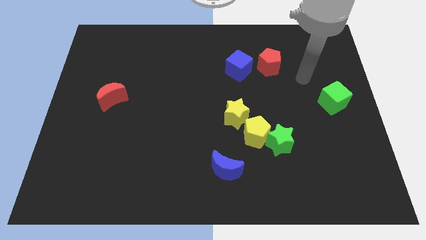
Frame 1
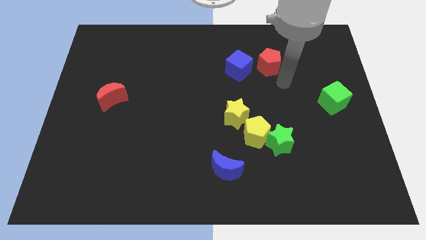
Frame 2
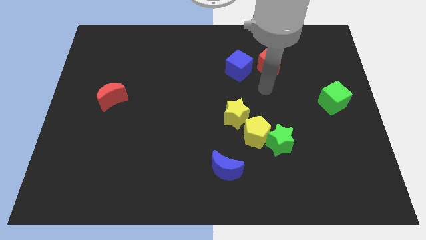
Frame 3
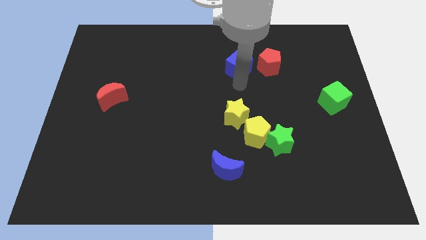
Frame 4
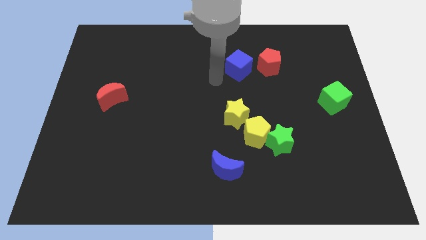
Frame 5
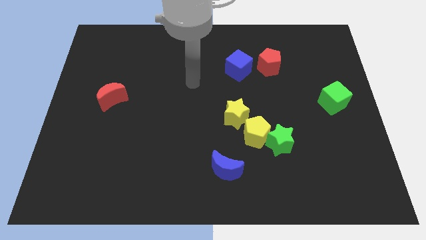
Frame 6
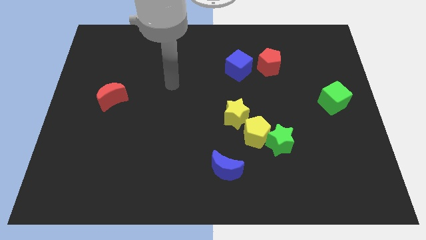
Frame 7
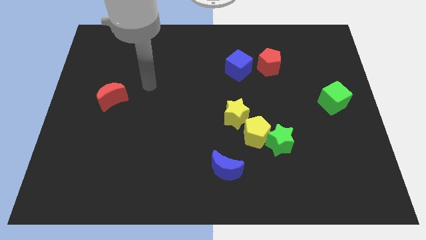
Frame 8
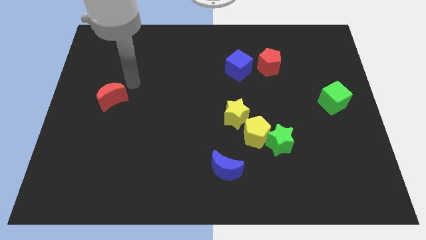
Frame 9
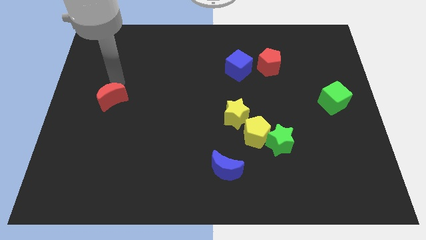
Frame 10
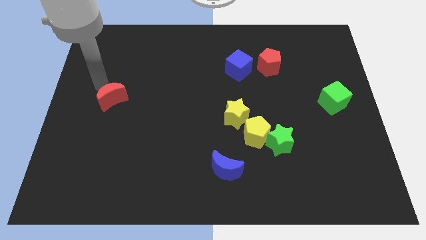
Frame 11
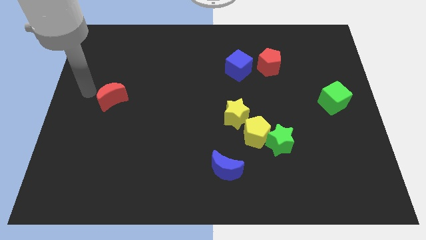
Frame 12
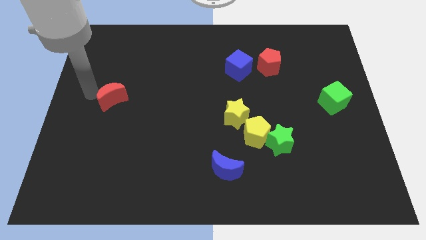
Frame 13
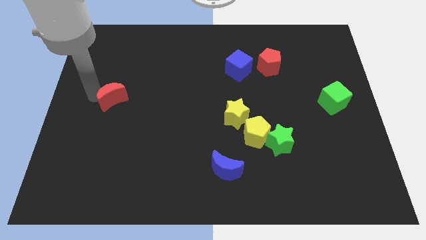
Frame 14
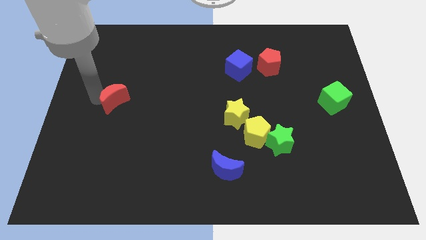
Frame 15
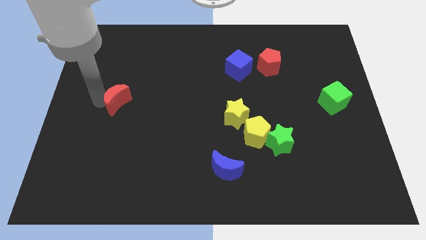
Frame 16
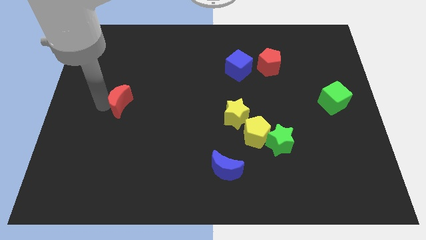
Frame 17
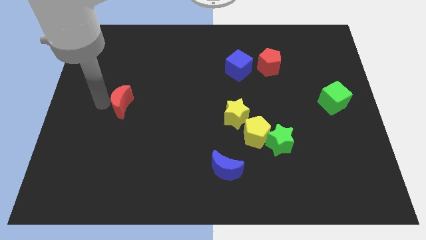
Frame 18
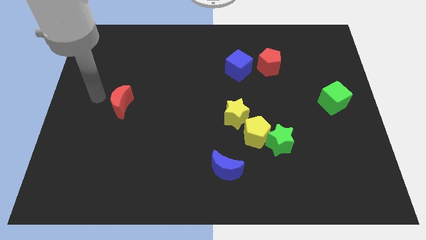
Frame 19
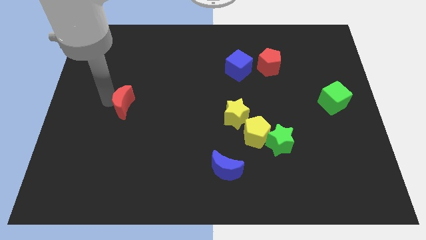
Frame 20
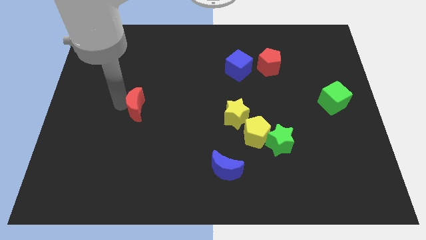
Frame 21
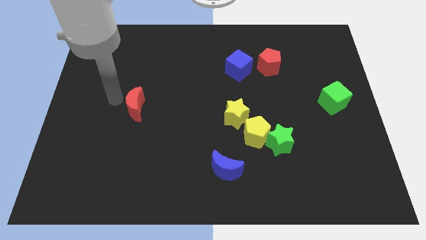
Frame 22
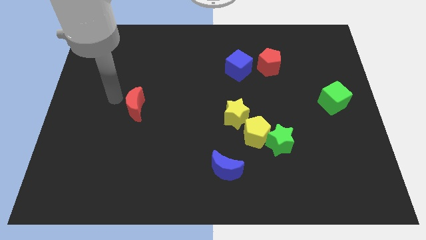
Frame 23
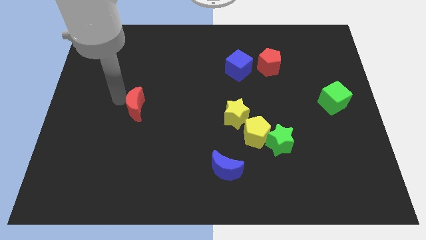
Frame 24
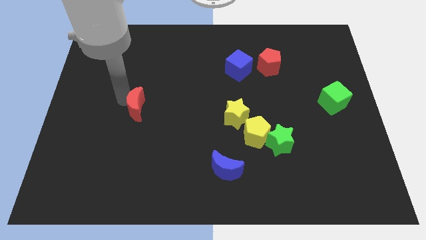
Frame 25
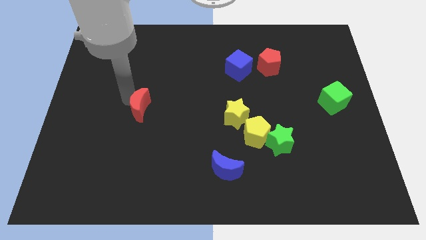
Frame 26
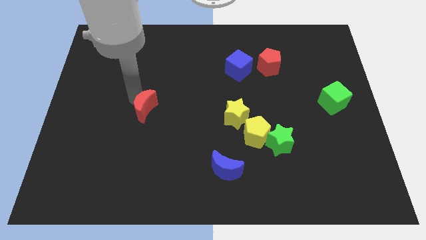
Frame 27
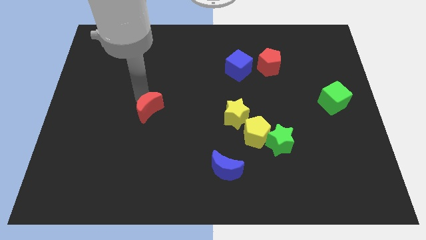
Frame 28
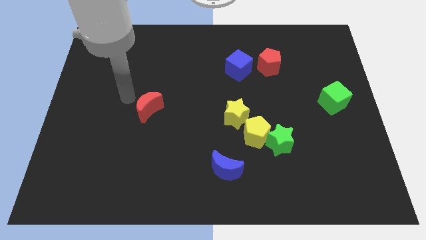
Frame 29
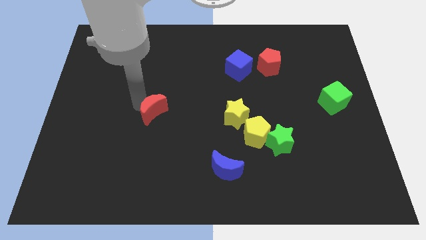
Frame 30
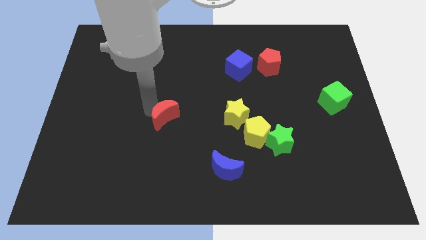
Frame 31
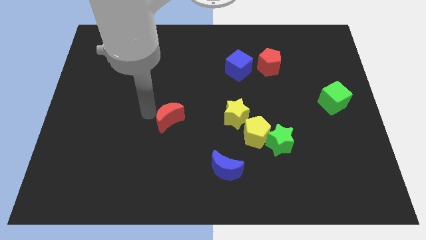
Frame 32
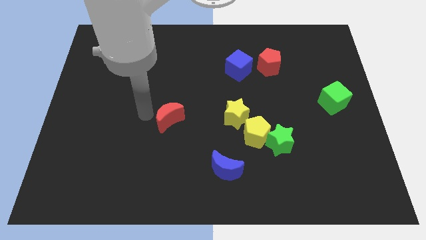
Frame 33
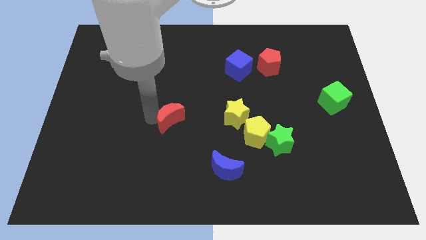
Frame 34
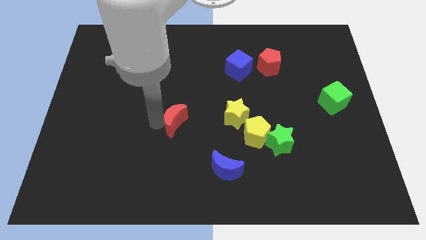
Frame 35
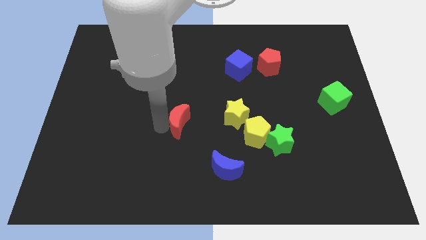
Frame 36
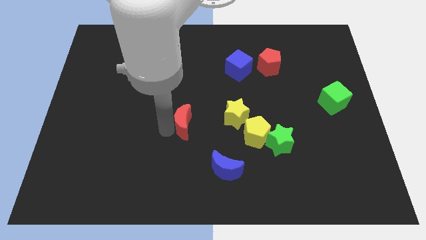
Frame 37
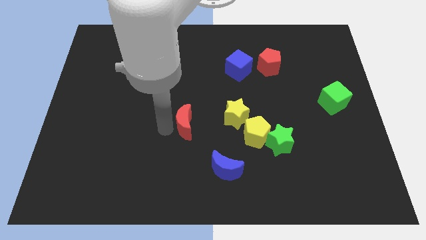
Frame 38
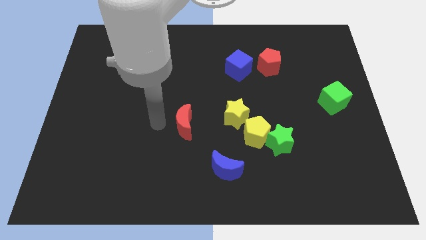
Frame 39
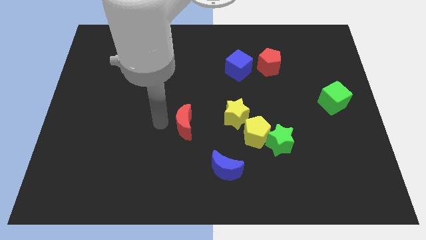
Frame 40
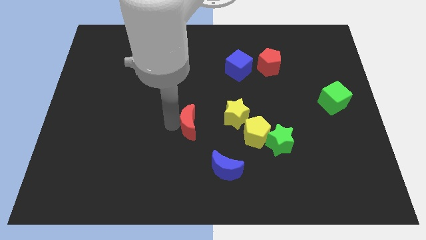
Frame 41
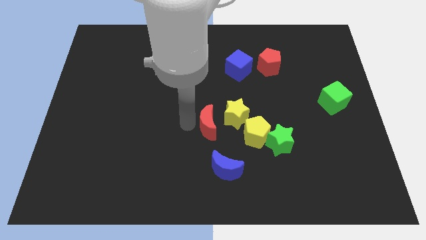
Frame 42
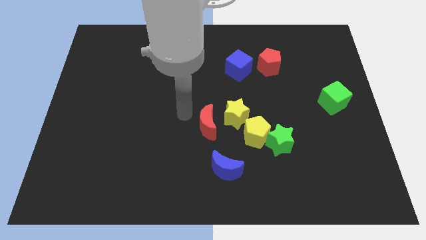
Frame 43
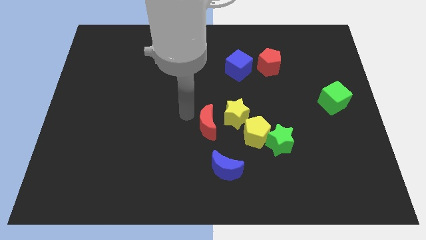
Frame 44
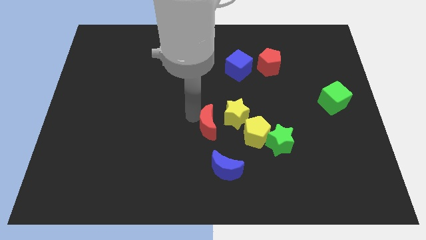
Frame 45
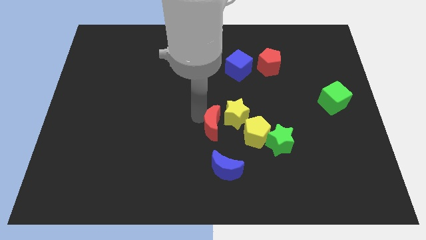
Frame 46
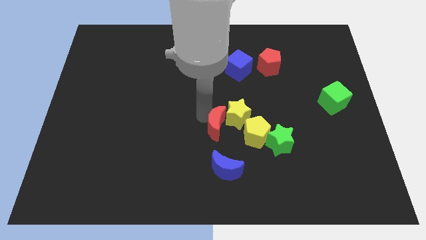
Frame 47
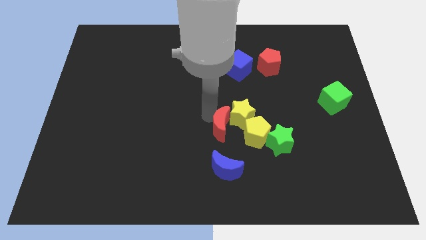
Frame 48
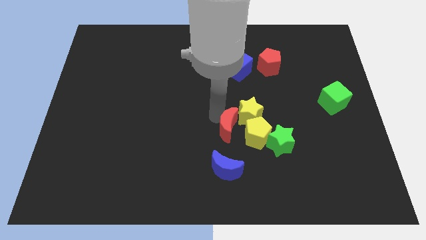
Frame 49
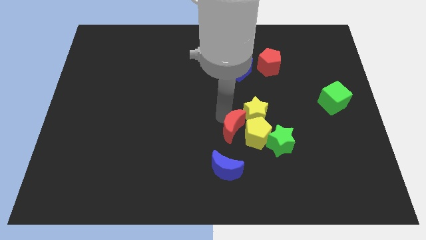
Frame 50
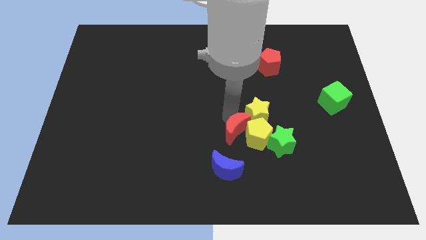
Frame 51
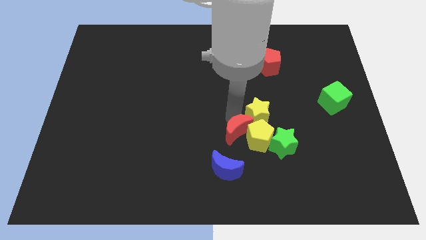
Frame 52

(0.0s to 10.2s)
move the red moon diagonally up and to the right of the blue moon

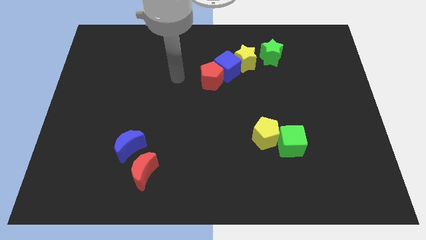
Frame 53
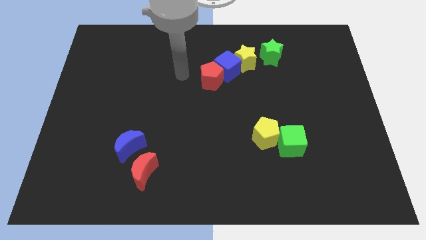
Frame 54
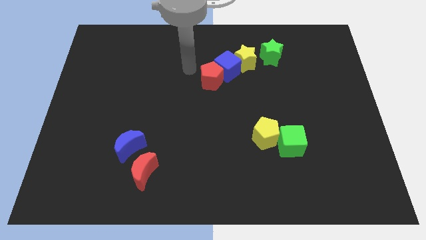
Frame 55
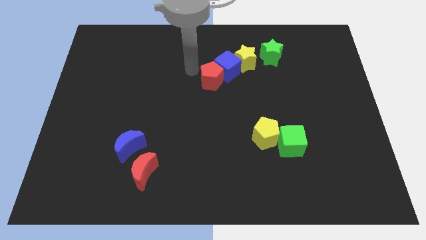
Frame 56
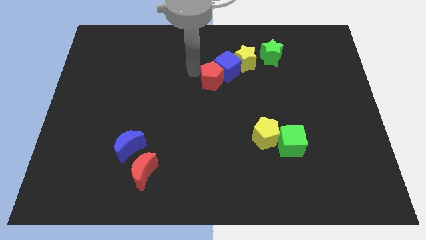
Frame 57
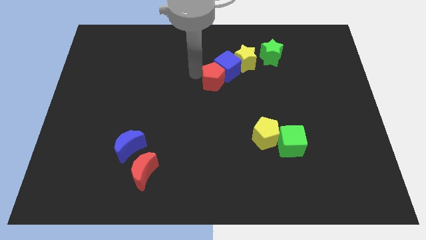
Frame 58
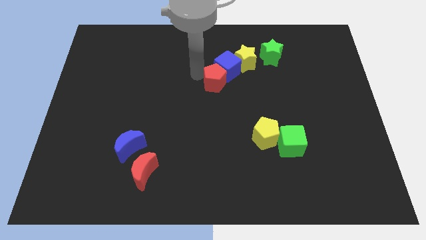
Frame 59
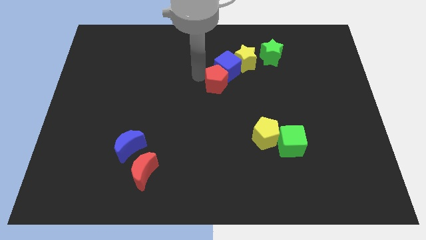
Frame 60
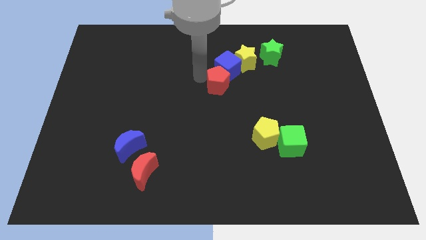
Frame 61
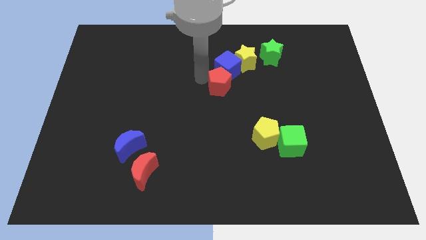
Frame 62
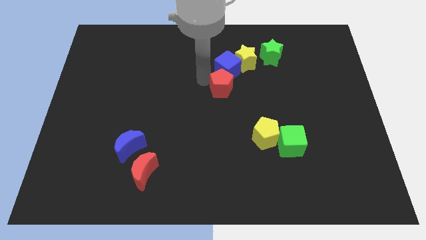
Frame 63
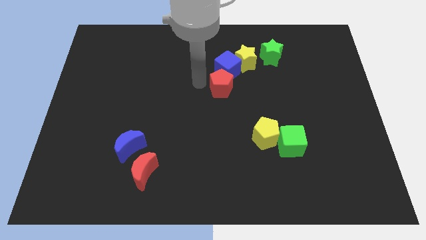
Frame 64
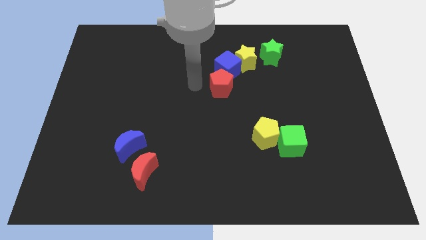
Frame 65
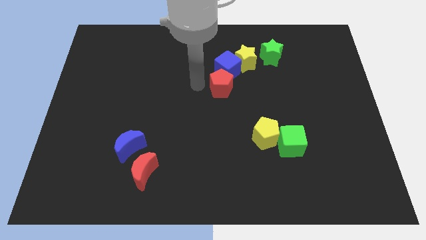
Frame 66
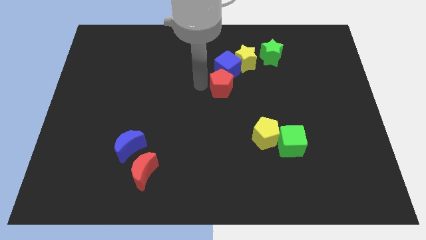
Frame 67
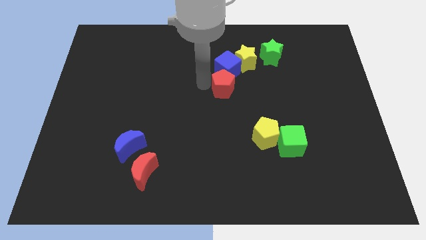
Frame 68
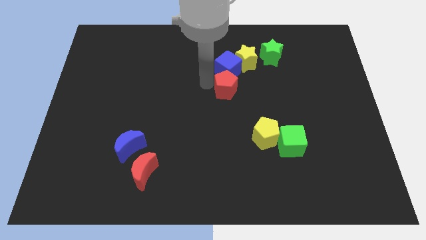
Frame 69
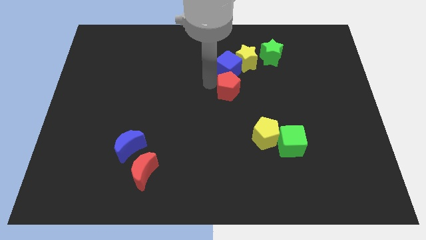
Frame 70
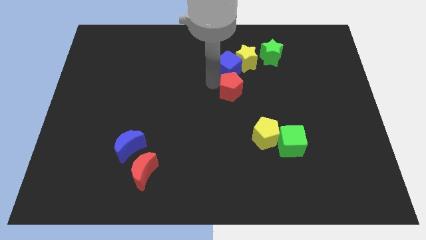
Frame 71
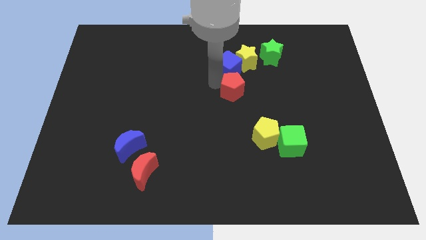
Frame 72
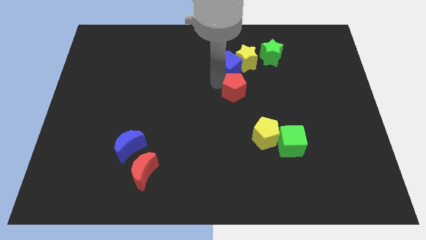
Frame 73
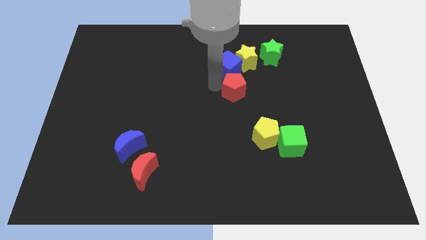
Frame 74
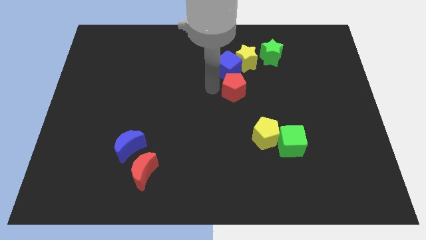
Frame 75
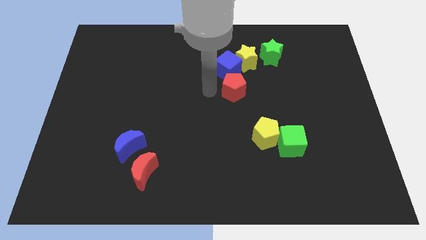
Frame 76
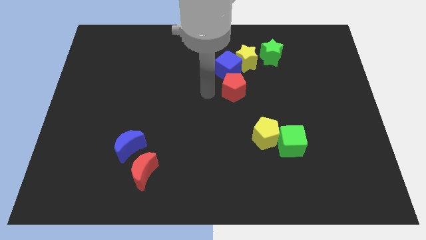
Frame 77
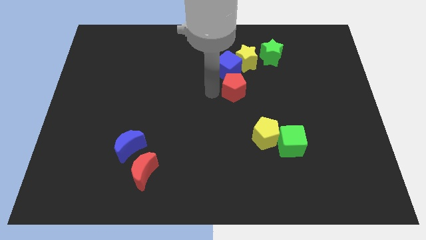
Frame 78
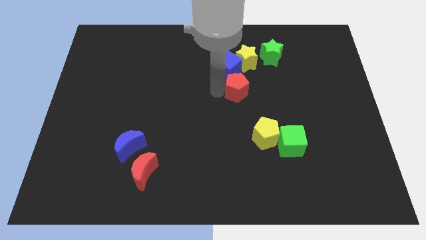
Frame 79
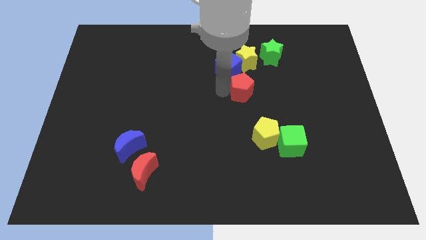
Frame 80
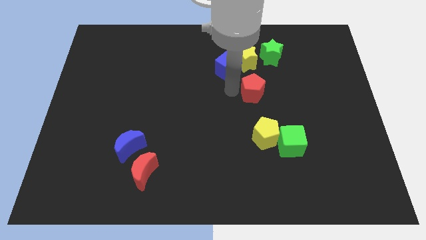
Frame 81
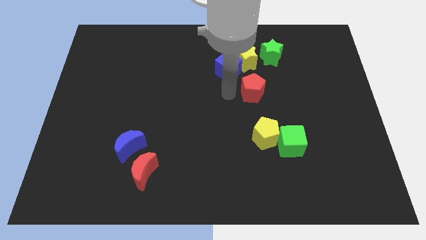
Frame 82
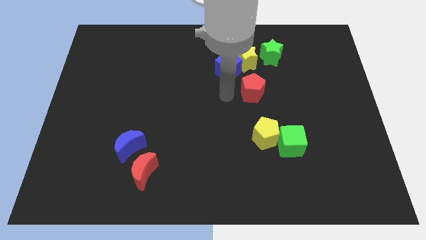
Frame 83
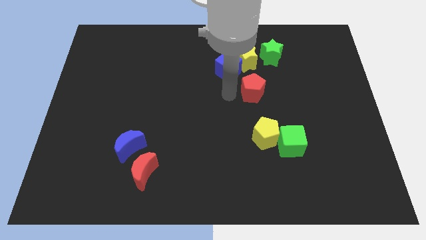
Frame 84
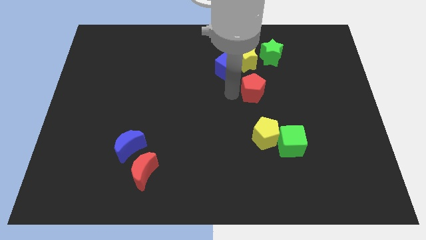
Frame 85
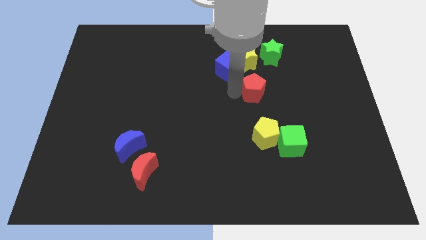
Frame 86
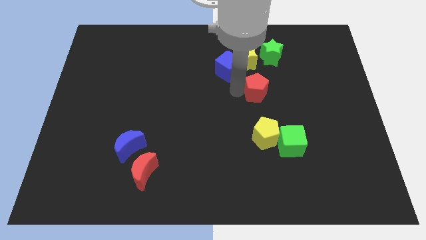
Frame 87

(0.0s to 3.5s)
put the red pentagon to the bottom of the green star
